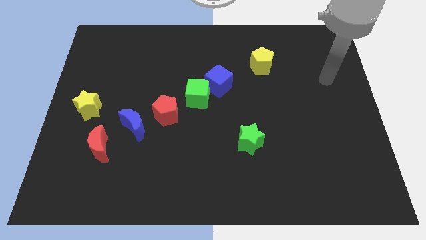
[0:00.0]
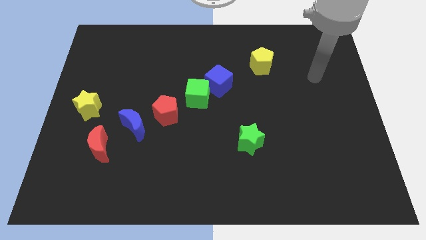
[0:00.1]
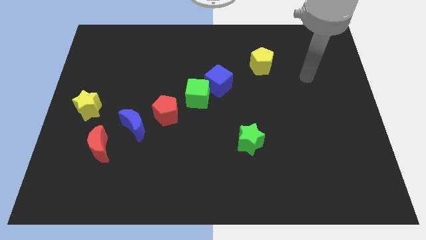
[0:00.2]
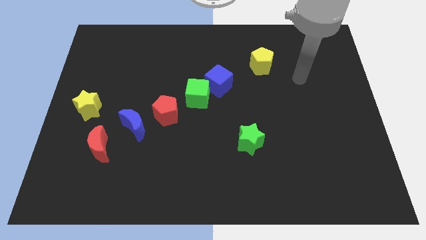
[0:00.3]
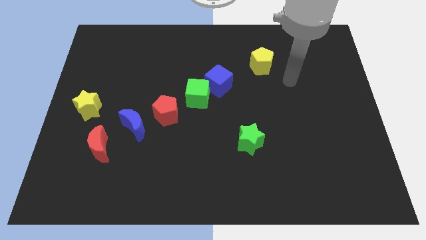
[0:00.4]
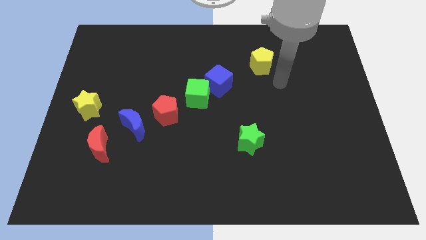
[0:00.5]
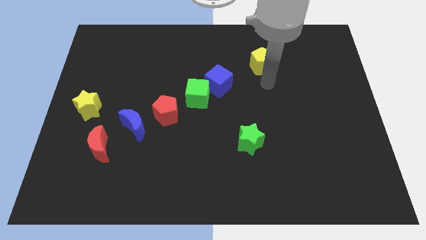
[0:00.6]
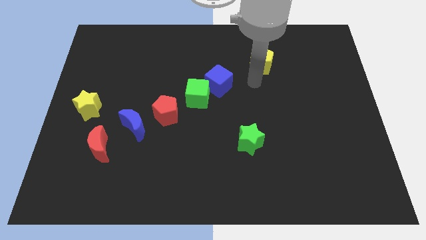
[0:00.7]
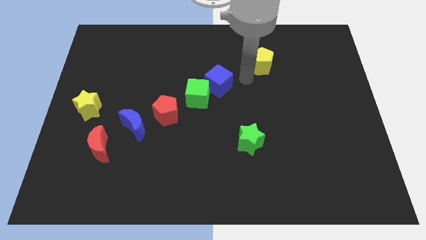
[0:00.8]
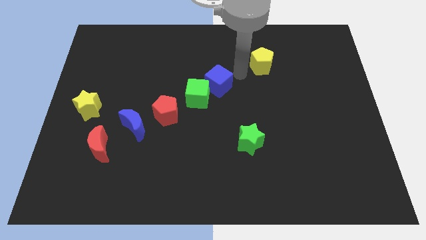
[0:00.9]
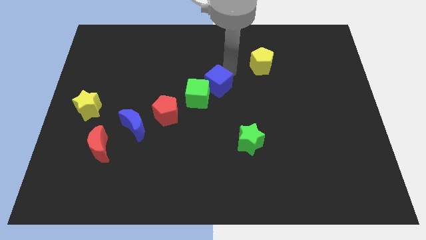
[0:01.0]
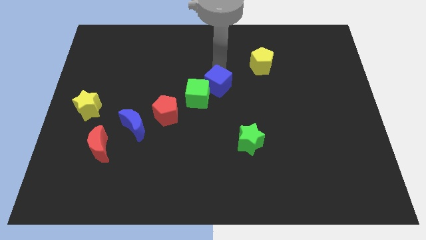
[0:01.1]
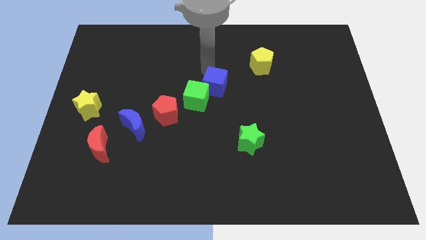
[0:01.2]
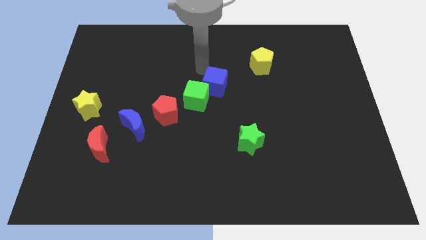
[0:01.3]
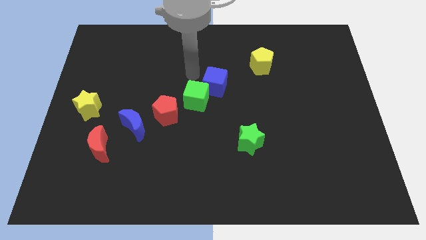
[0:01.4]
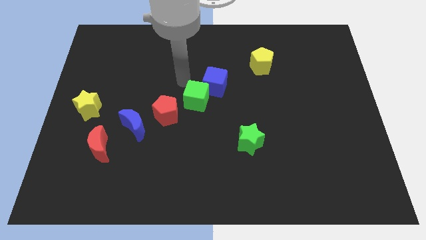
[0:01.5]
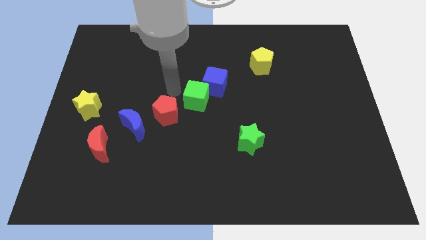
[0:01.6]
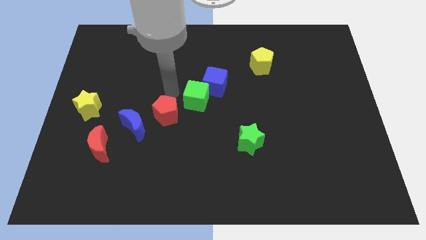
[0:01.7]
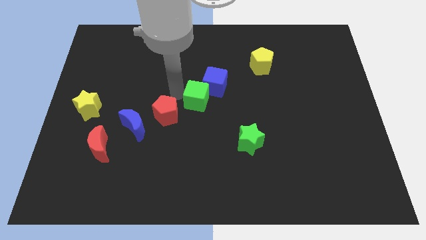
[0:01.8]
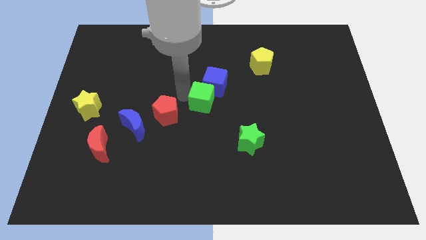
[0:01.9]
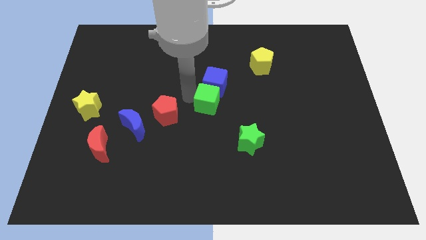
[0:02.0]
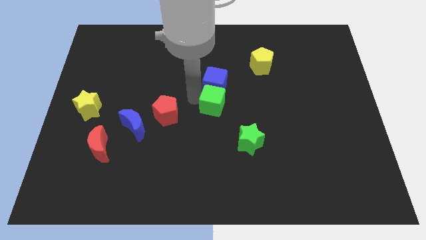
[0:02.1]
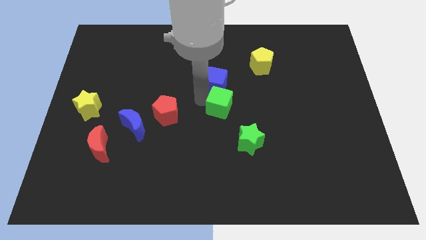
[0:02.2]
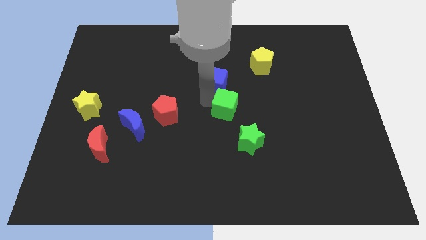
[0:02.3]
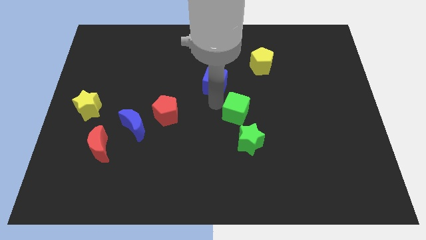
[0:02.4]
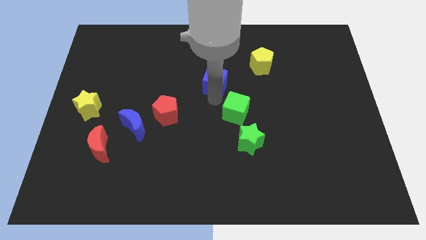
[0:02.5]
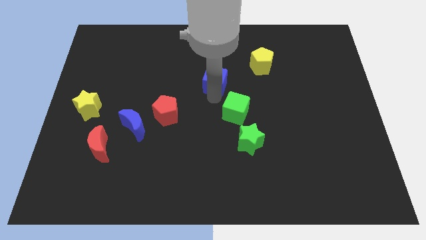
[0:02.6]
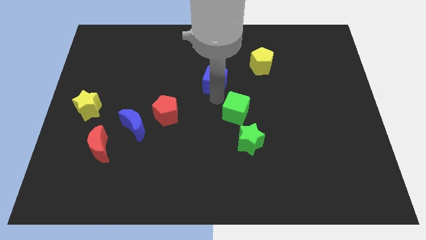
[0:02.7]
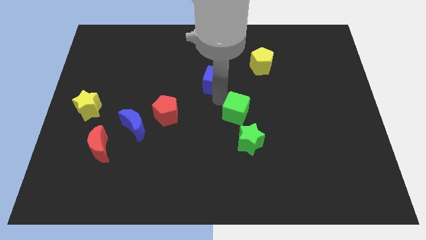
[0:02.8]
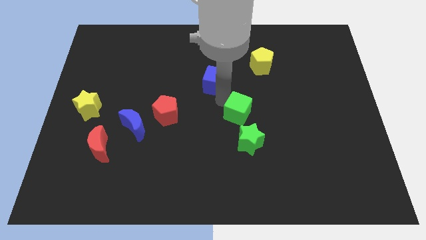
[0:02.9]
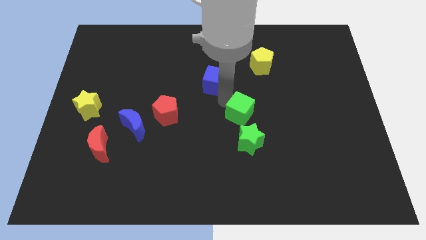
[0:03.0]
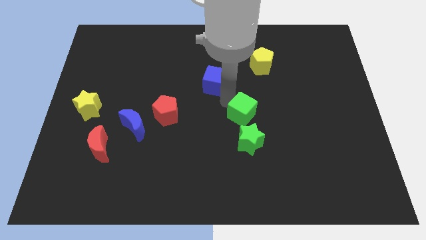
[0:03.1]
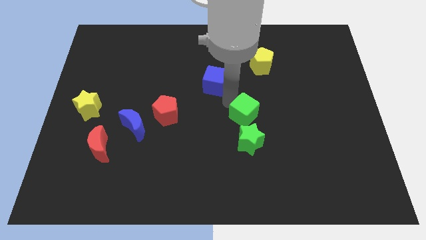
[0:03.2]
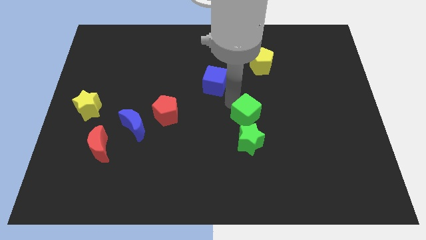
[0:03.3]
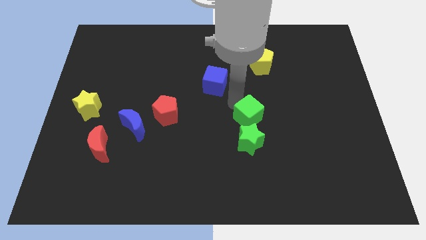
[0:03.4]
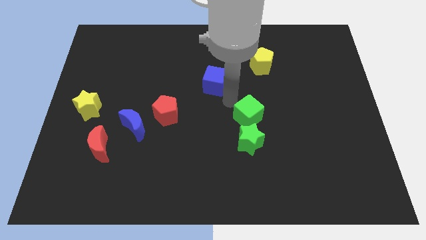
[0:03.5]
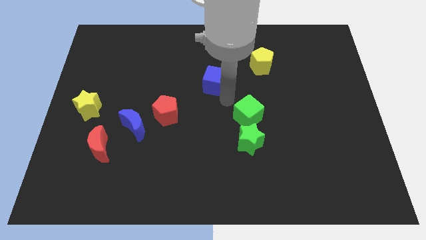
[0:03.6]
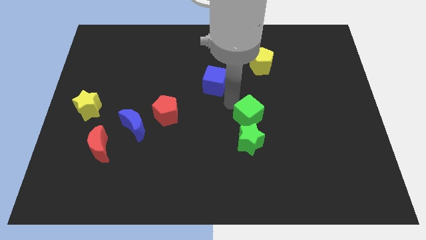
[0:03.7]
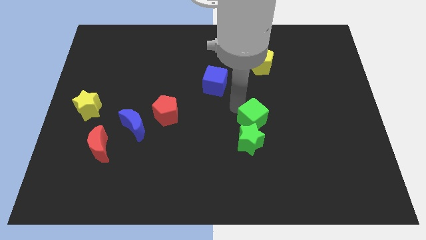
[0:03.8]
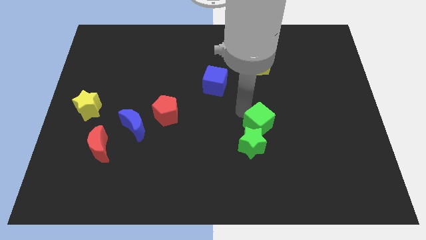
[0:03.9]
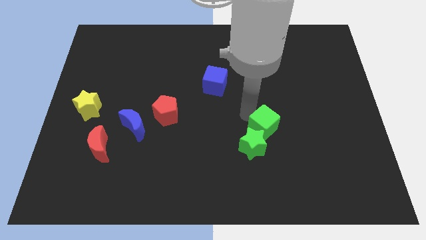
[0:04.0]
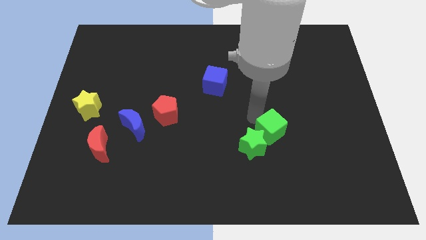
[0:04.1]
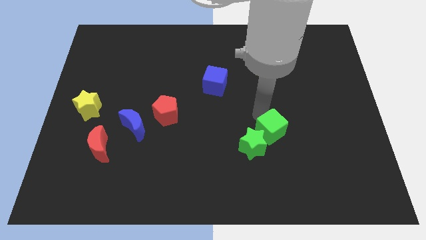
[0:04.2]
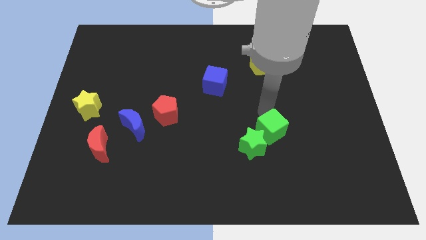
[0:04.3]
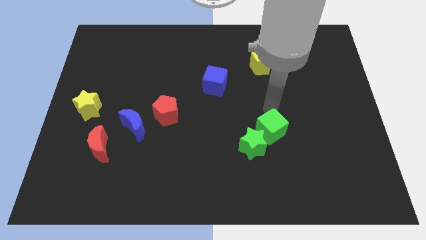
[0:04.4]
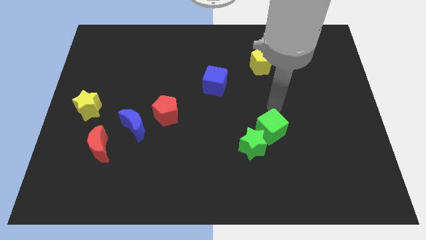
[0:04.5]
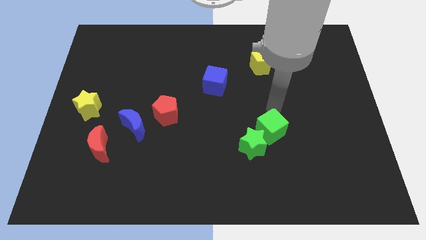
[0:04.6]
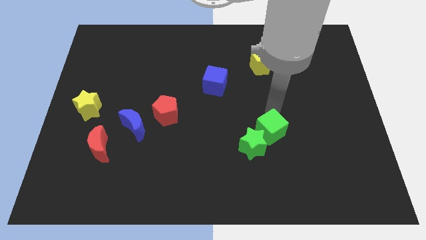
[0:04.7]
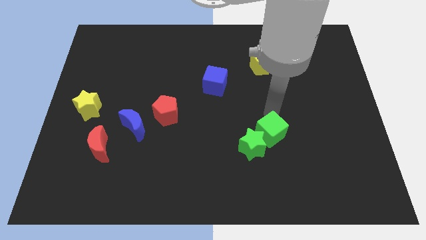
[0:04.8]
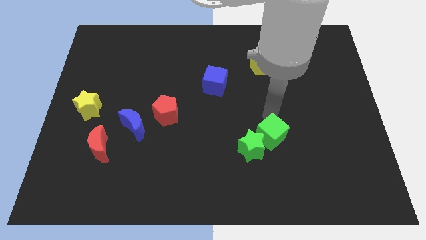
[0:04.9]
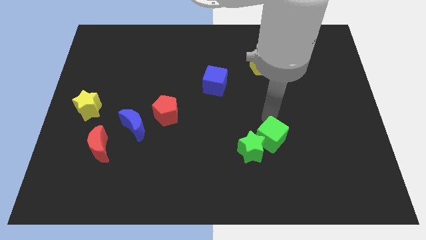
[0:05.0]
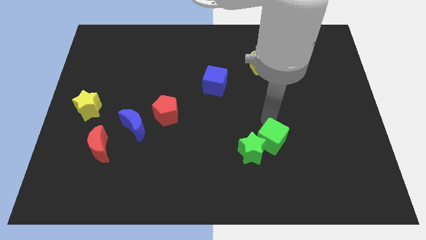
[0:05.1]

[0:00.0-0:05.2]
move the green cube down and to the right

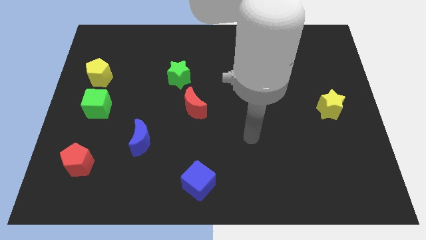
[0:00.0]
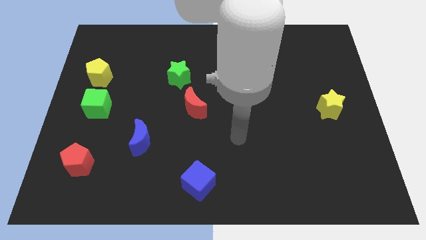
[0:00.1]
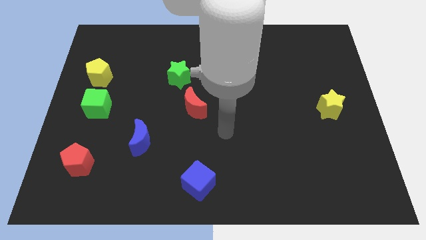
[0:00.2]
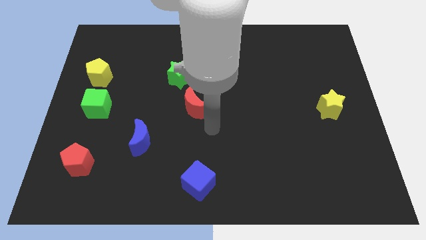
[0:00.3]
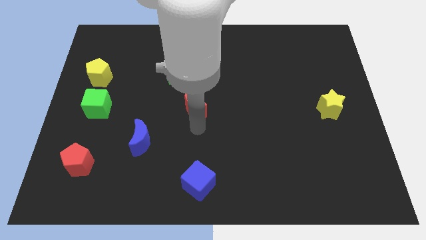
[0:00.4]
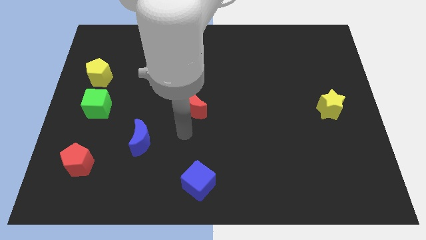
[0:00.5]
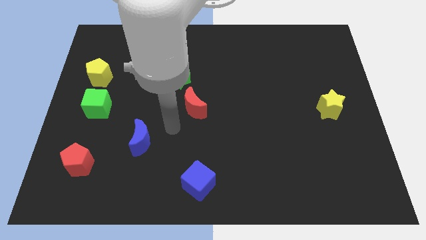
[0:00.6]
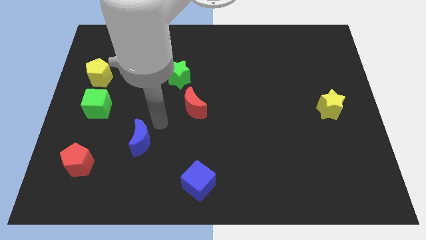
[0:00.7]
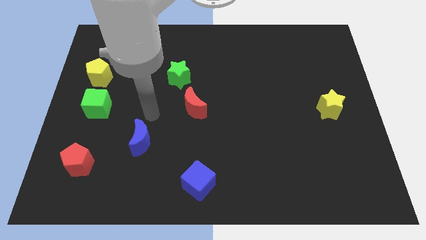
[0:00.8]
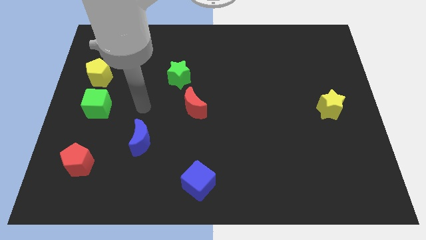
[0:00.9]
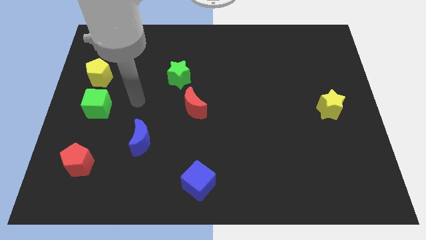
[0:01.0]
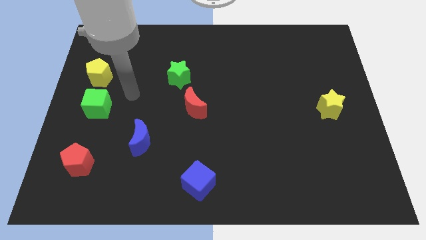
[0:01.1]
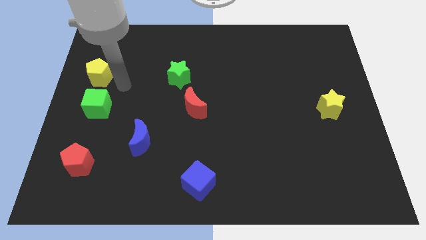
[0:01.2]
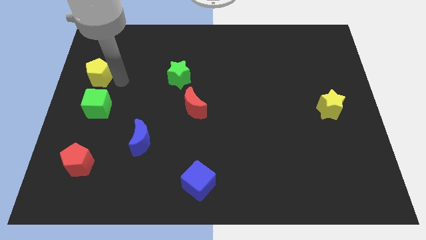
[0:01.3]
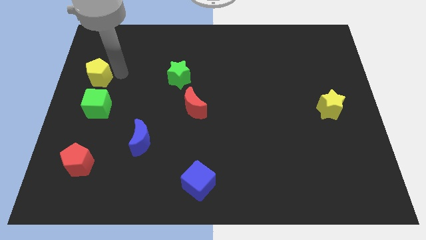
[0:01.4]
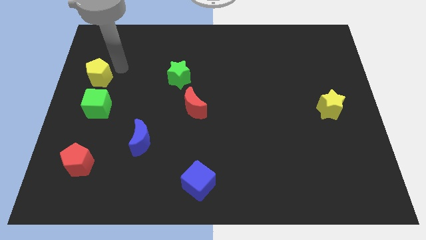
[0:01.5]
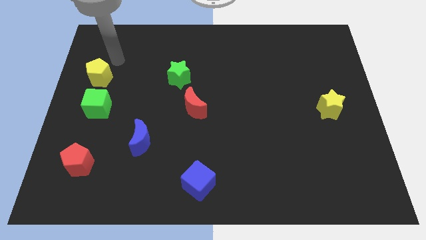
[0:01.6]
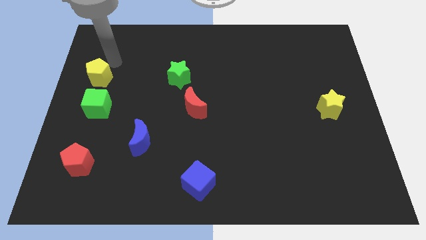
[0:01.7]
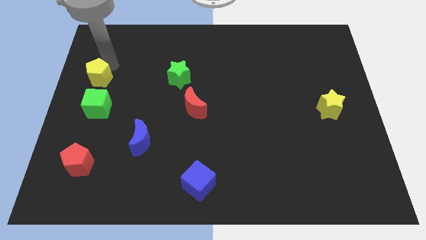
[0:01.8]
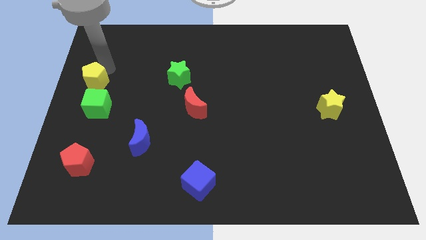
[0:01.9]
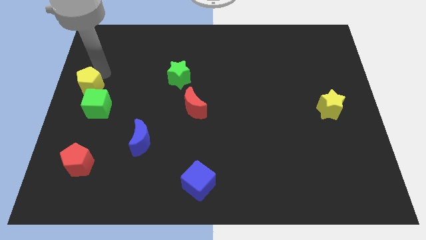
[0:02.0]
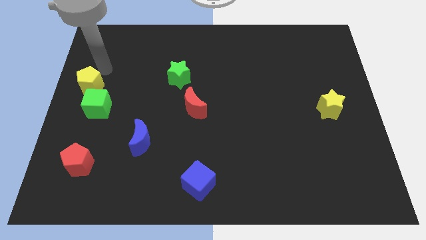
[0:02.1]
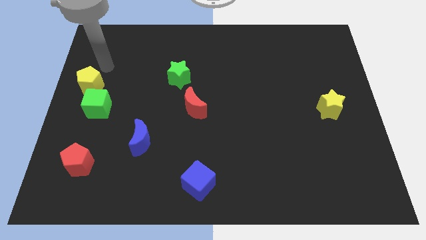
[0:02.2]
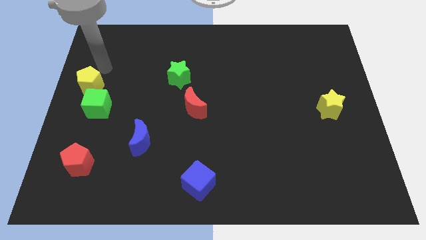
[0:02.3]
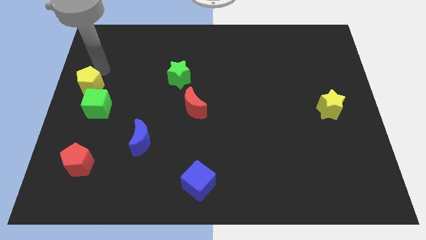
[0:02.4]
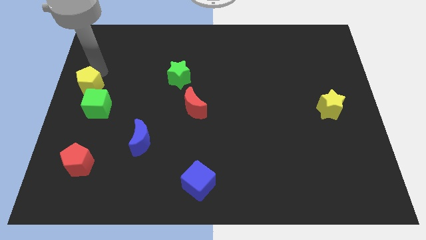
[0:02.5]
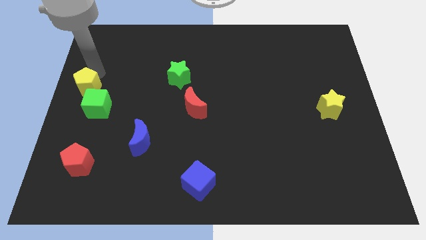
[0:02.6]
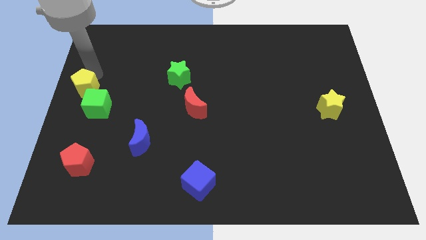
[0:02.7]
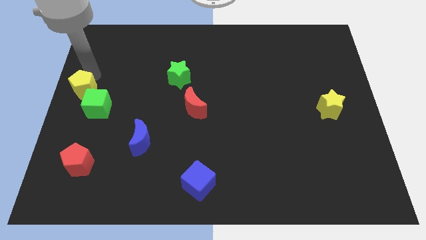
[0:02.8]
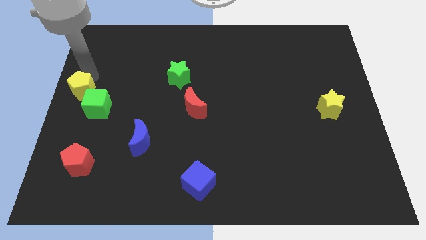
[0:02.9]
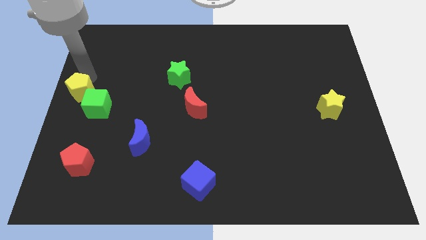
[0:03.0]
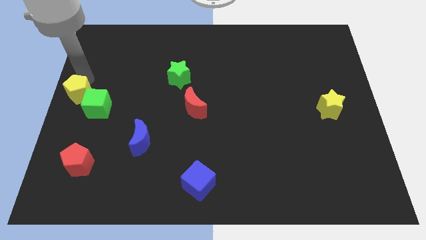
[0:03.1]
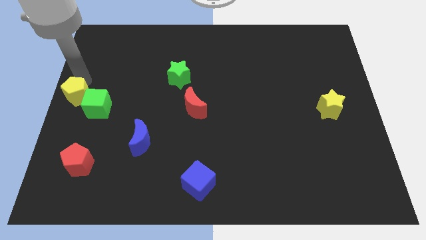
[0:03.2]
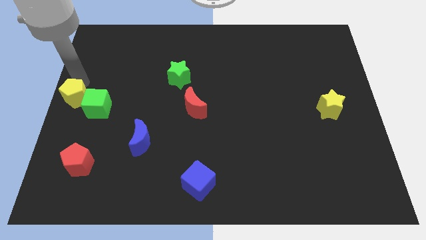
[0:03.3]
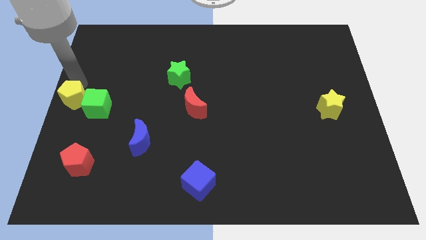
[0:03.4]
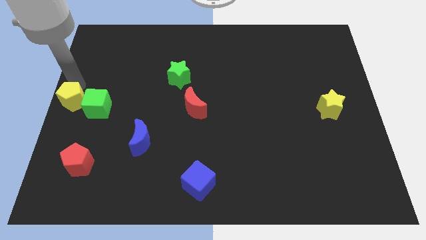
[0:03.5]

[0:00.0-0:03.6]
slide the yellow pentagon down a bit
